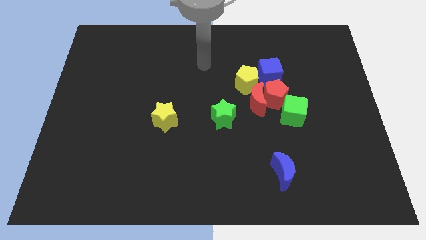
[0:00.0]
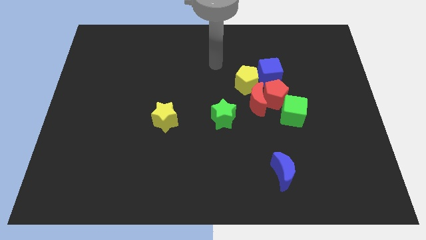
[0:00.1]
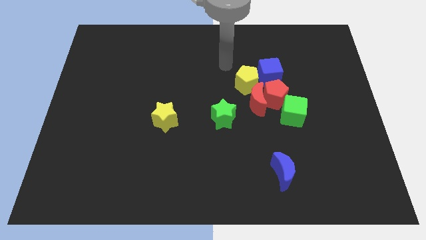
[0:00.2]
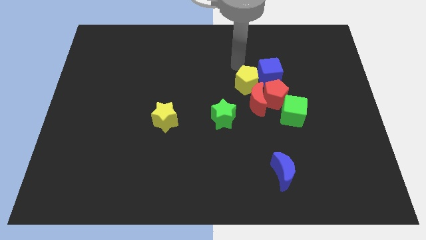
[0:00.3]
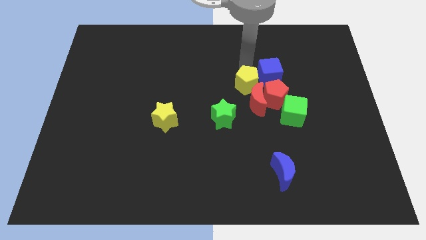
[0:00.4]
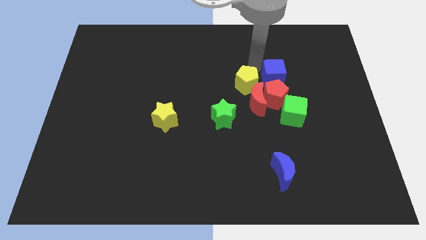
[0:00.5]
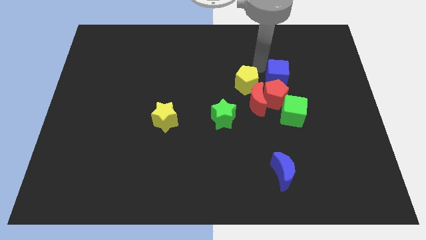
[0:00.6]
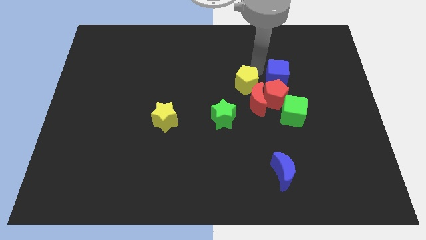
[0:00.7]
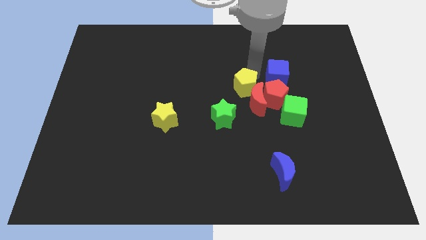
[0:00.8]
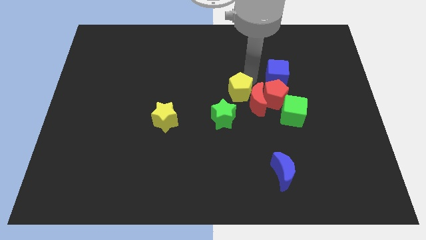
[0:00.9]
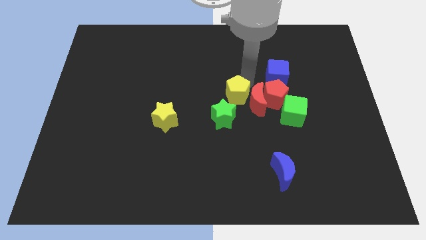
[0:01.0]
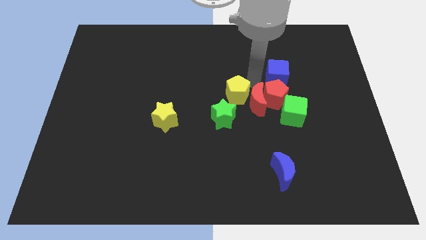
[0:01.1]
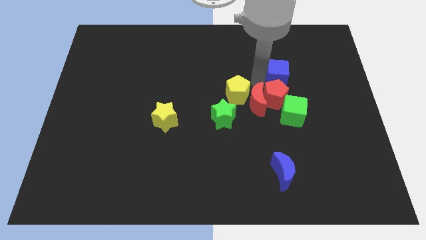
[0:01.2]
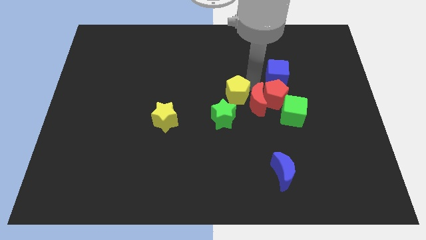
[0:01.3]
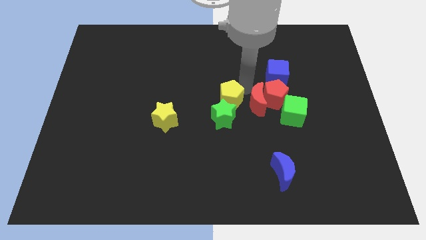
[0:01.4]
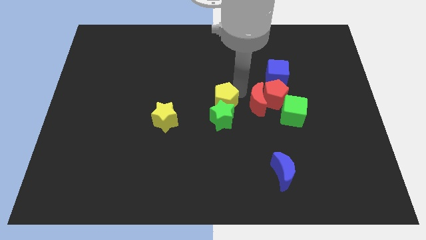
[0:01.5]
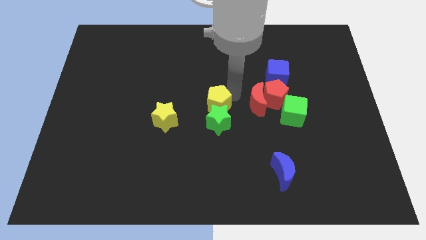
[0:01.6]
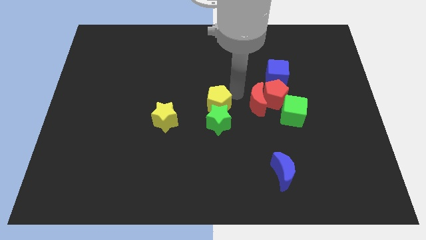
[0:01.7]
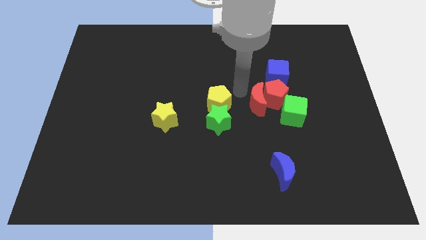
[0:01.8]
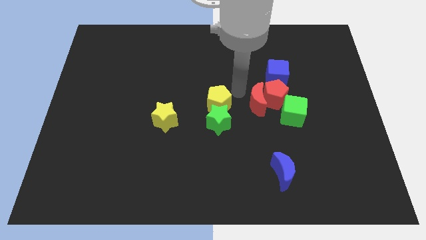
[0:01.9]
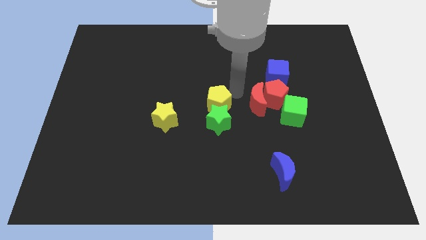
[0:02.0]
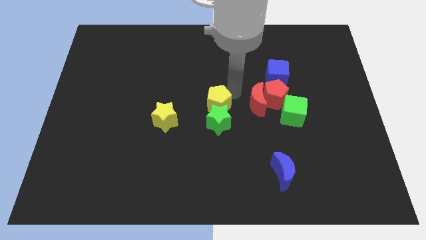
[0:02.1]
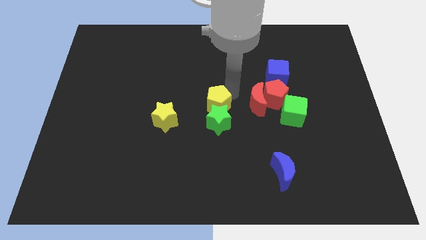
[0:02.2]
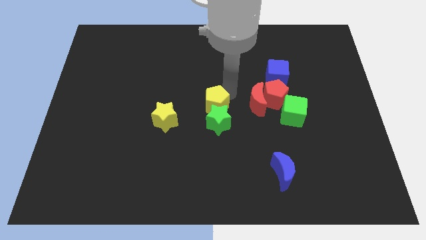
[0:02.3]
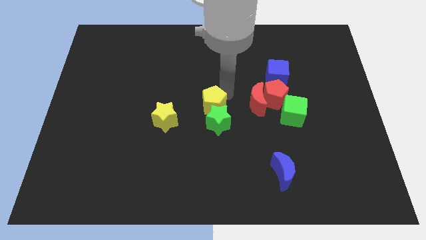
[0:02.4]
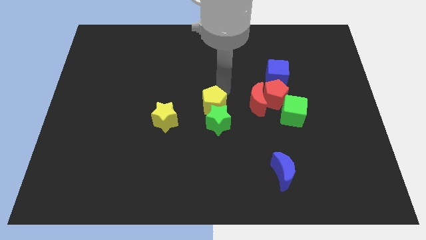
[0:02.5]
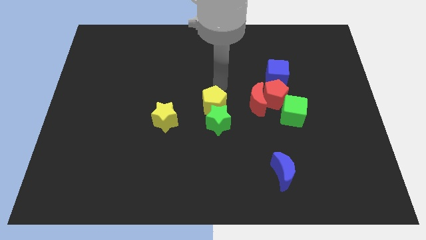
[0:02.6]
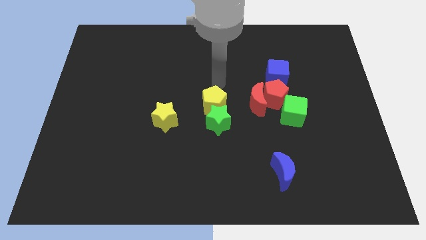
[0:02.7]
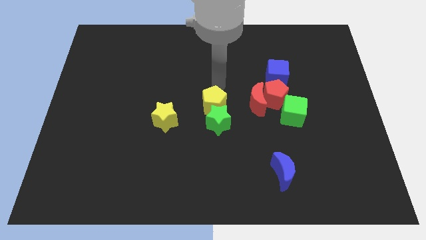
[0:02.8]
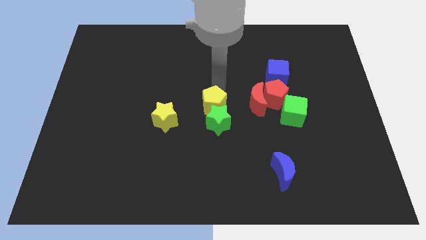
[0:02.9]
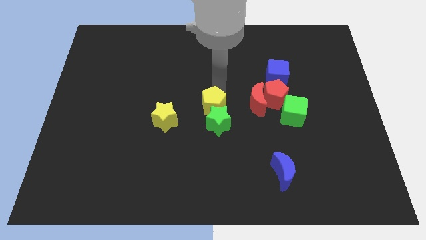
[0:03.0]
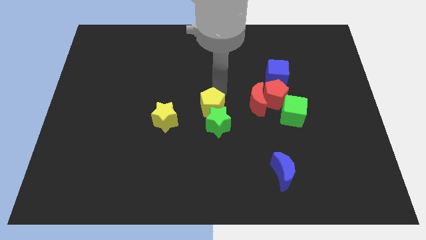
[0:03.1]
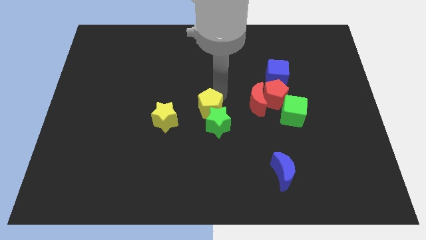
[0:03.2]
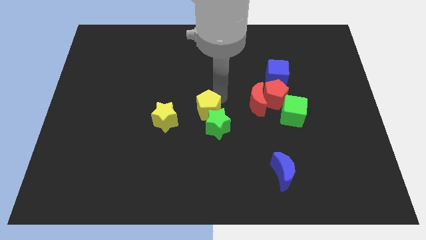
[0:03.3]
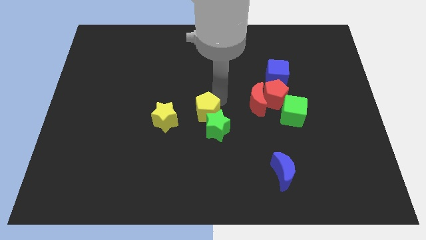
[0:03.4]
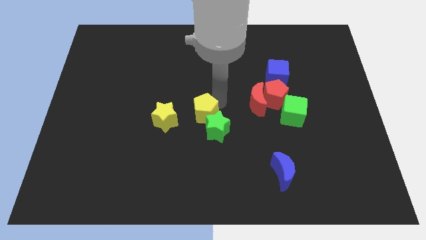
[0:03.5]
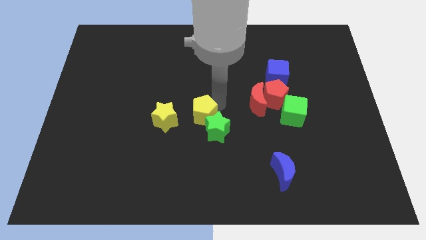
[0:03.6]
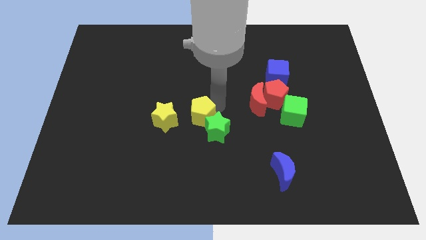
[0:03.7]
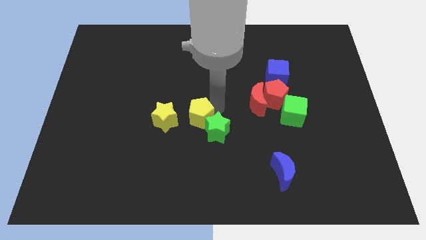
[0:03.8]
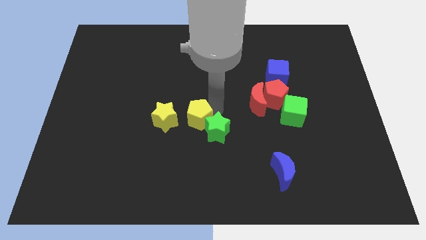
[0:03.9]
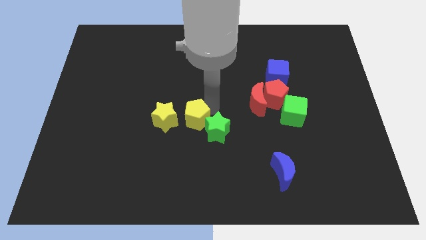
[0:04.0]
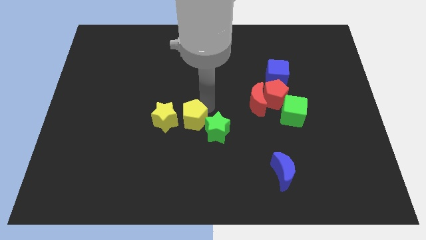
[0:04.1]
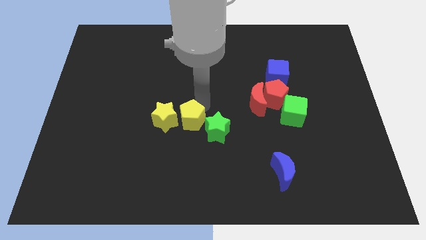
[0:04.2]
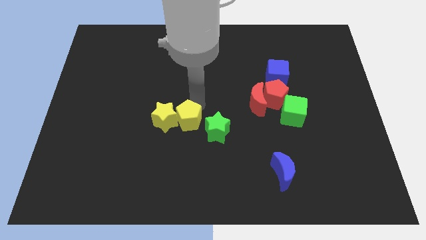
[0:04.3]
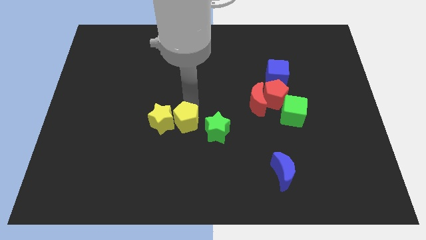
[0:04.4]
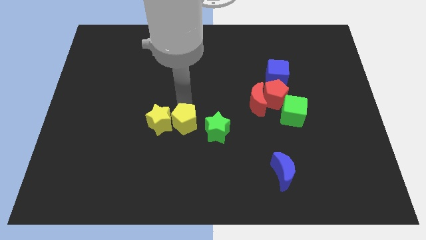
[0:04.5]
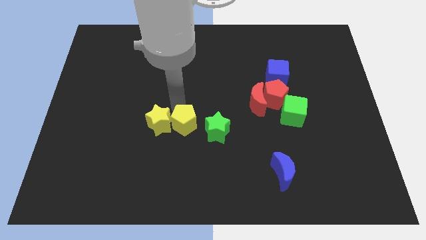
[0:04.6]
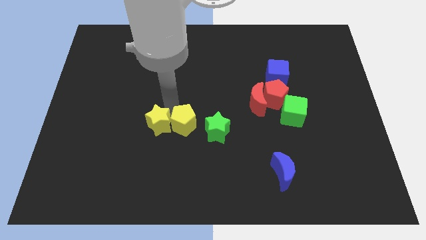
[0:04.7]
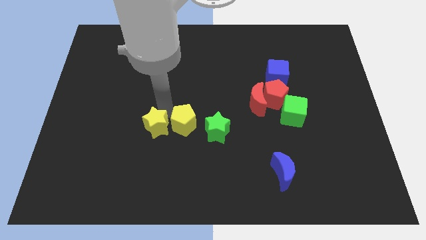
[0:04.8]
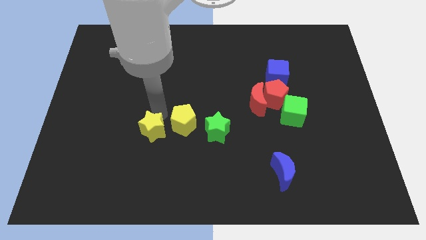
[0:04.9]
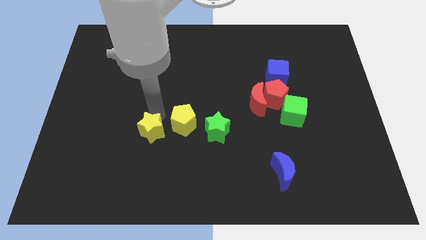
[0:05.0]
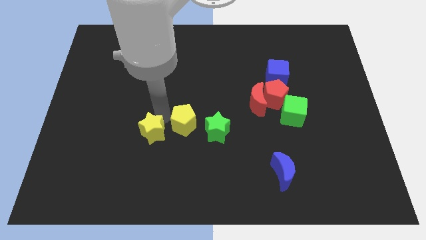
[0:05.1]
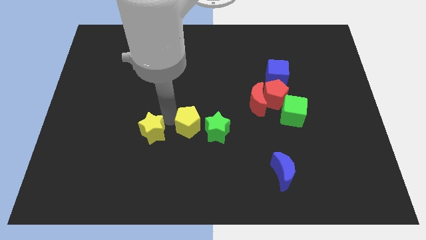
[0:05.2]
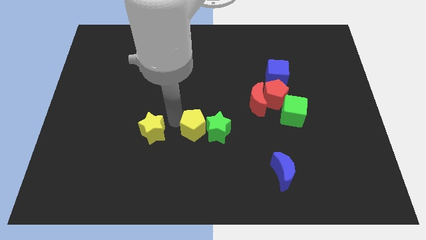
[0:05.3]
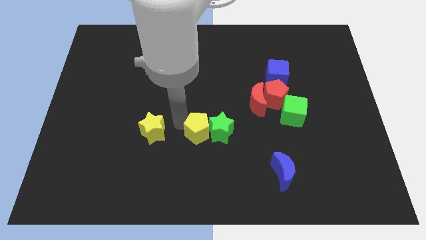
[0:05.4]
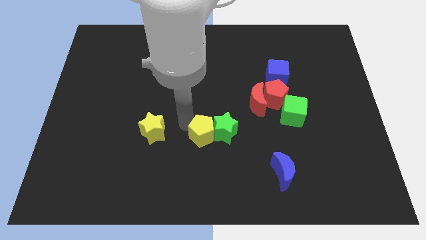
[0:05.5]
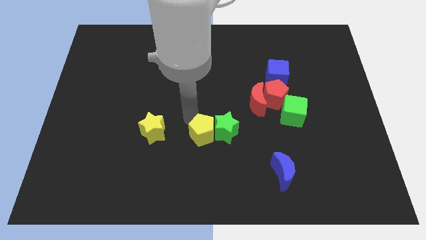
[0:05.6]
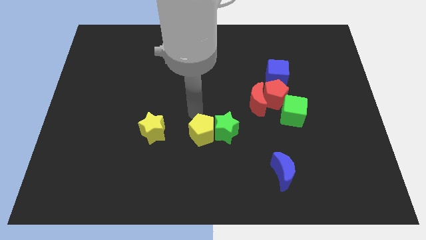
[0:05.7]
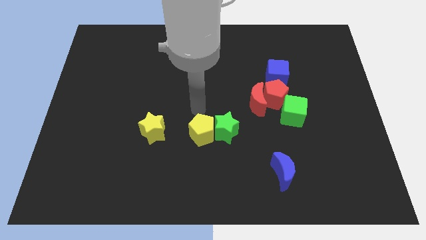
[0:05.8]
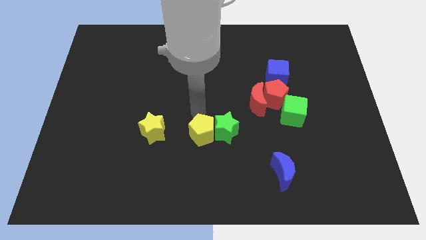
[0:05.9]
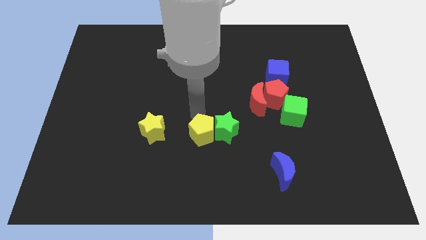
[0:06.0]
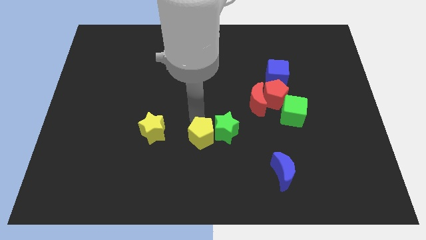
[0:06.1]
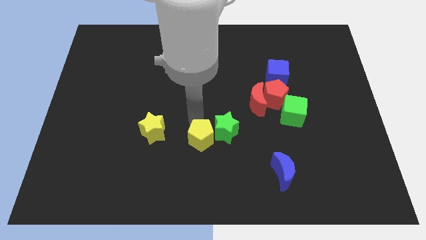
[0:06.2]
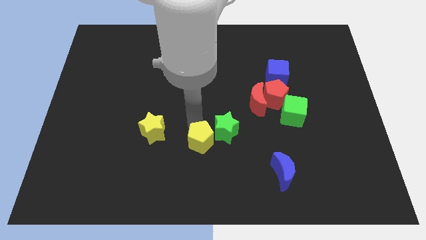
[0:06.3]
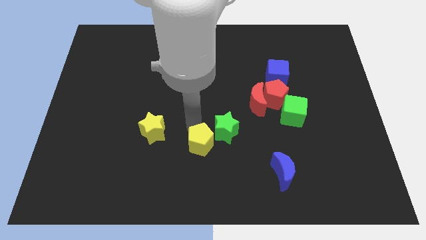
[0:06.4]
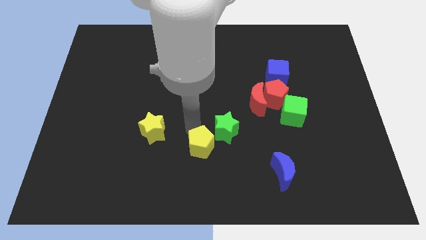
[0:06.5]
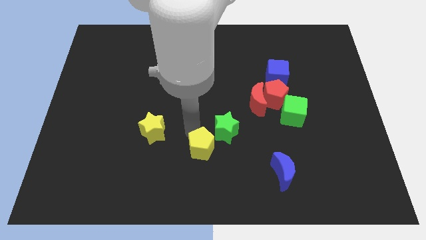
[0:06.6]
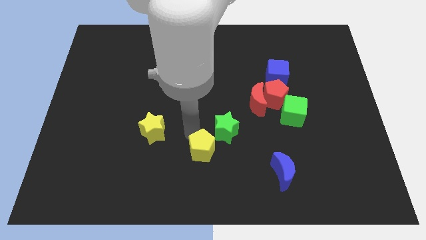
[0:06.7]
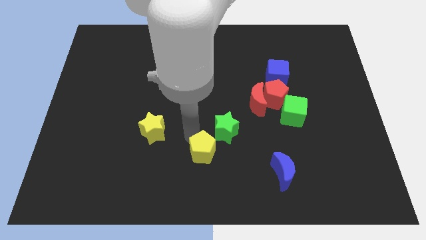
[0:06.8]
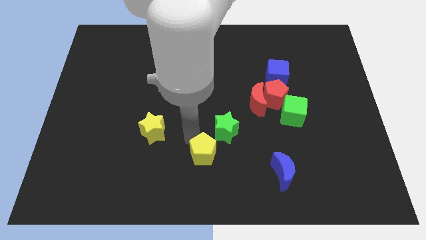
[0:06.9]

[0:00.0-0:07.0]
put the yellow pentagon to the bottom

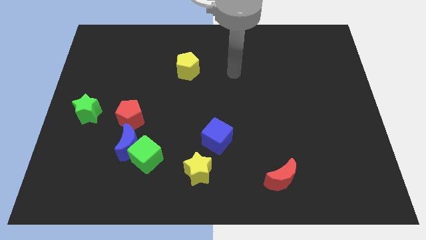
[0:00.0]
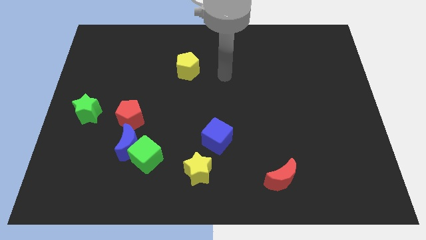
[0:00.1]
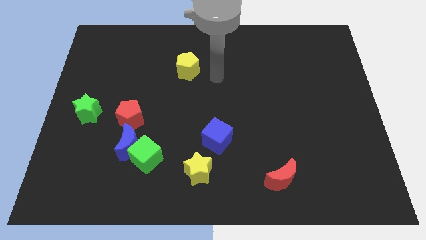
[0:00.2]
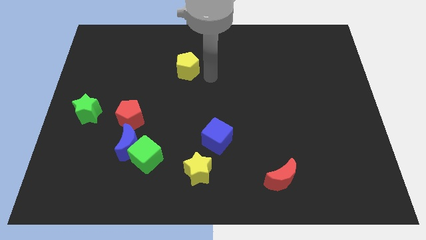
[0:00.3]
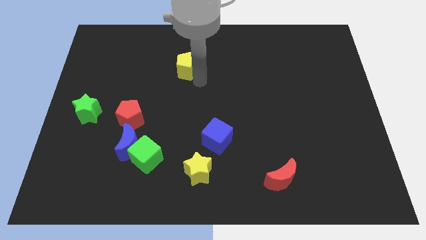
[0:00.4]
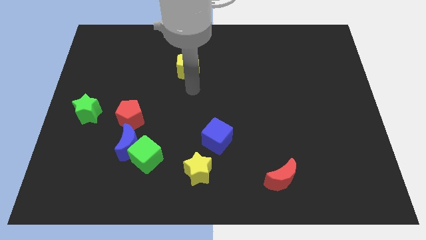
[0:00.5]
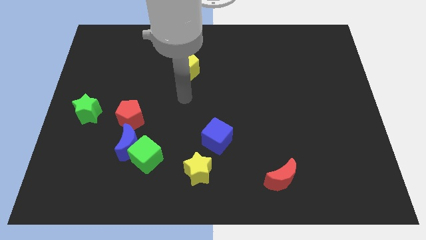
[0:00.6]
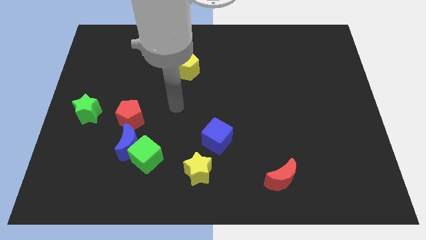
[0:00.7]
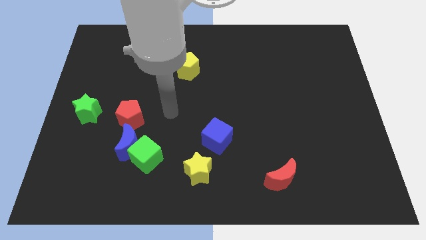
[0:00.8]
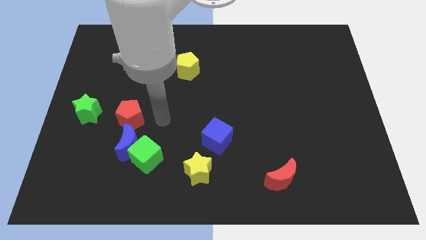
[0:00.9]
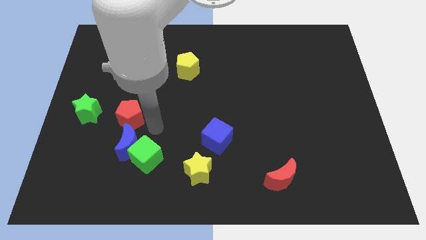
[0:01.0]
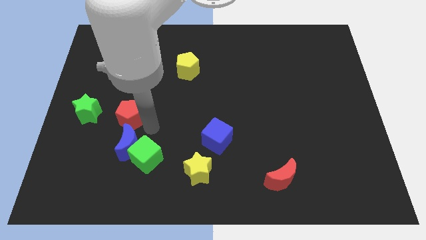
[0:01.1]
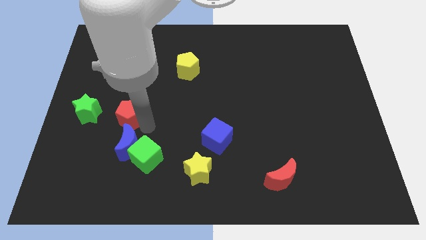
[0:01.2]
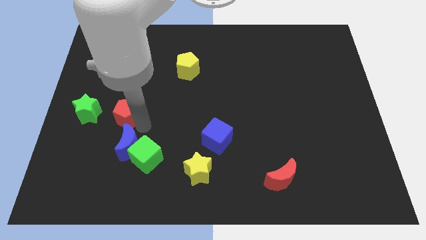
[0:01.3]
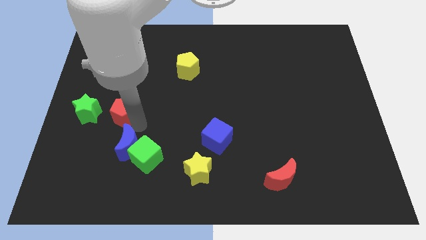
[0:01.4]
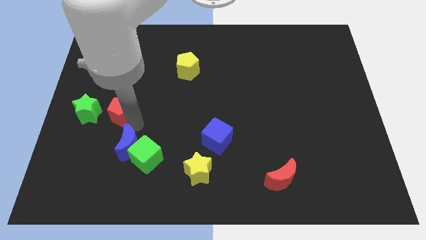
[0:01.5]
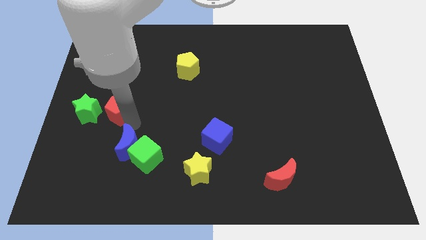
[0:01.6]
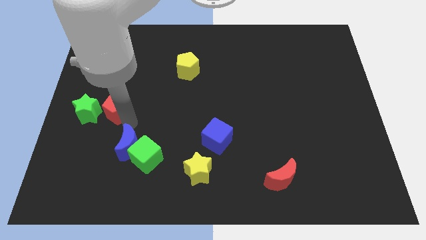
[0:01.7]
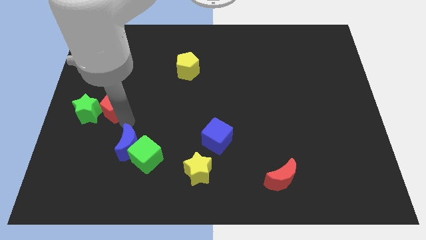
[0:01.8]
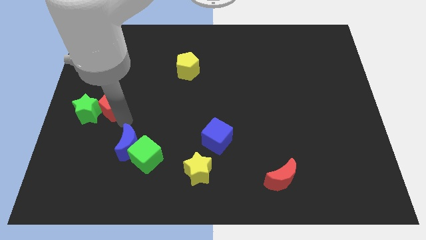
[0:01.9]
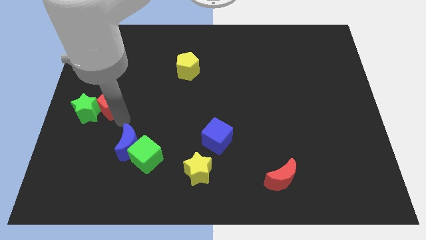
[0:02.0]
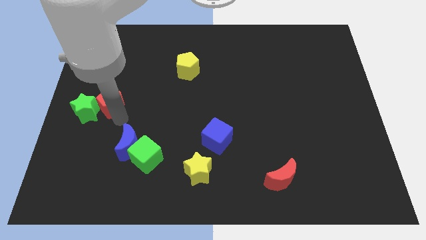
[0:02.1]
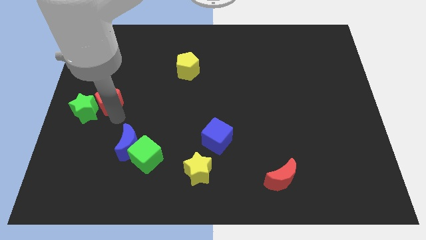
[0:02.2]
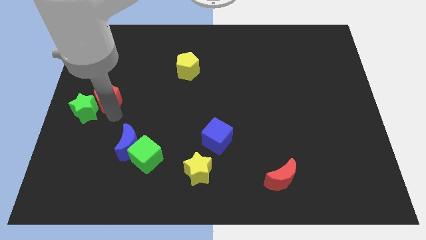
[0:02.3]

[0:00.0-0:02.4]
slide the red pentagon to the left side of the board
